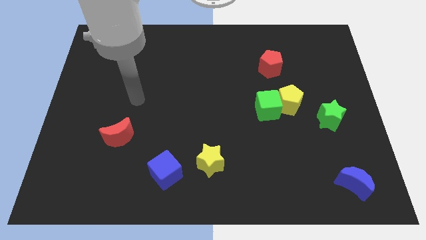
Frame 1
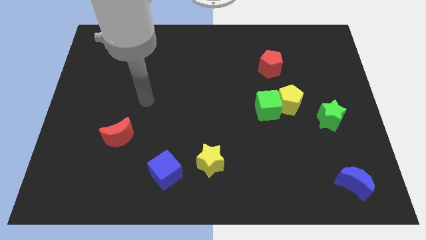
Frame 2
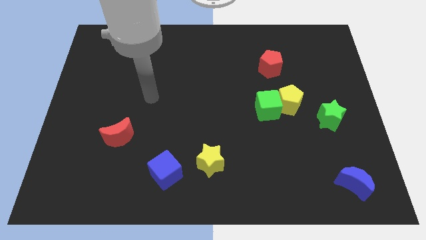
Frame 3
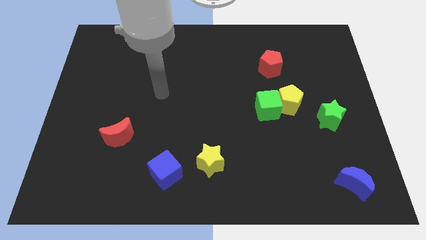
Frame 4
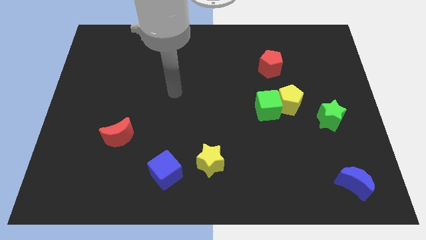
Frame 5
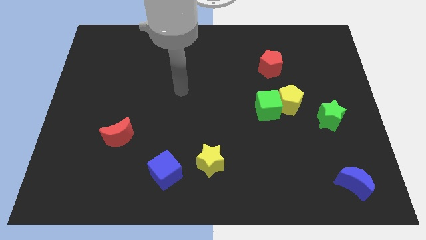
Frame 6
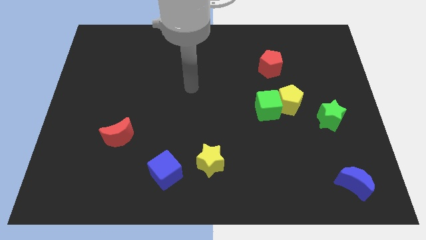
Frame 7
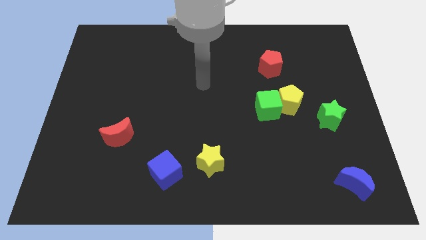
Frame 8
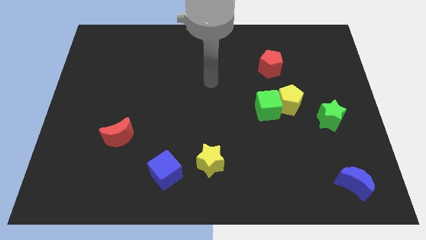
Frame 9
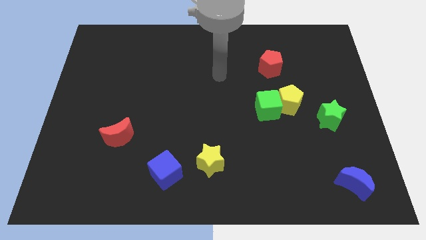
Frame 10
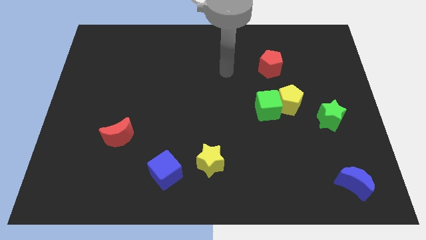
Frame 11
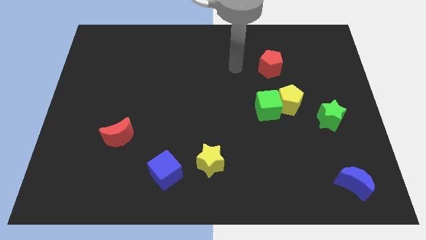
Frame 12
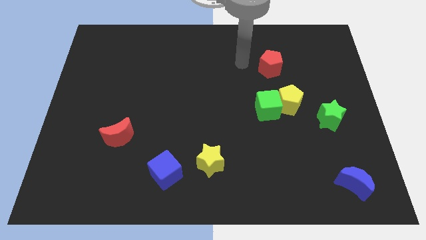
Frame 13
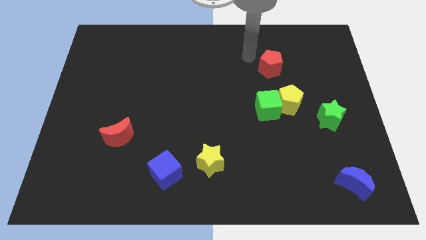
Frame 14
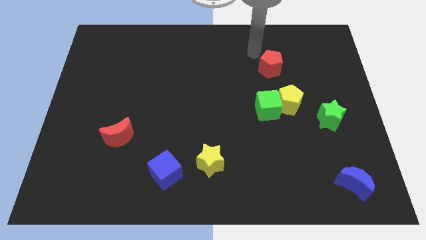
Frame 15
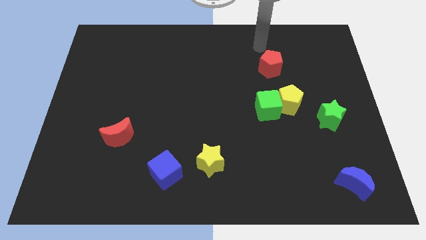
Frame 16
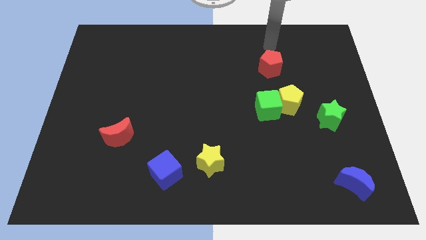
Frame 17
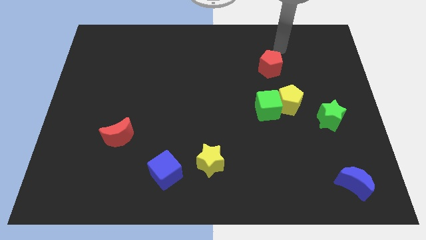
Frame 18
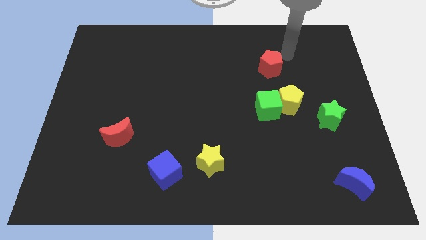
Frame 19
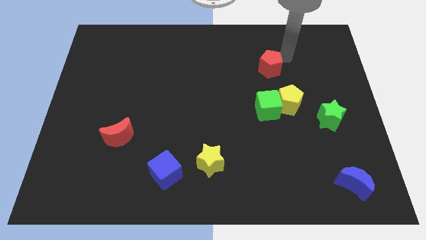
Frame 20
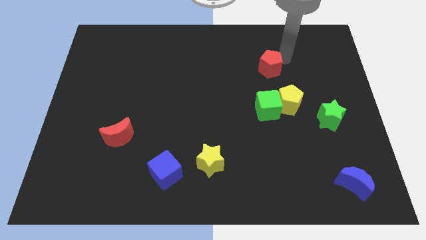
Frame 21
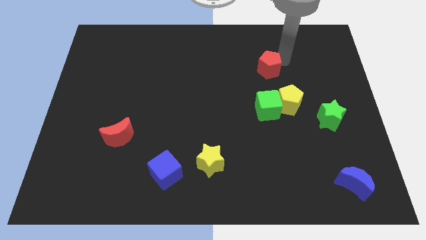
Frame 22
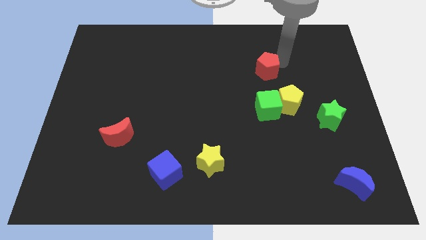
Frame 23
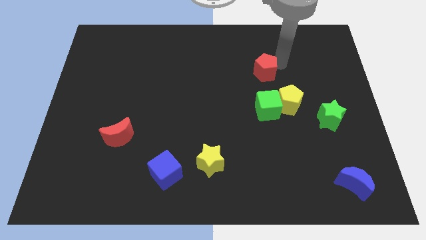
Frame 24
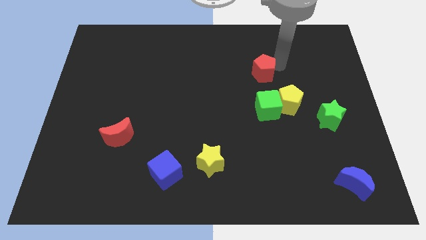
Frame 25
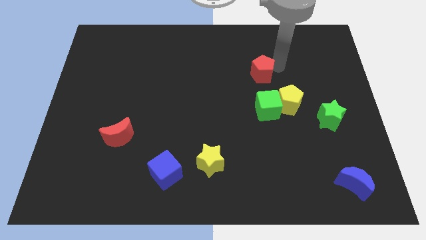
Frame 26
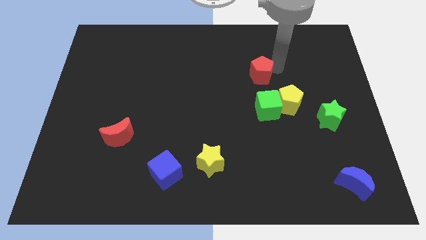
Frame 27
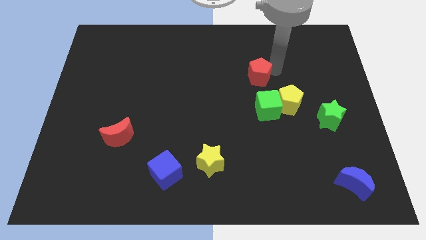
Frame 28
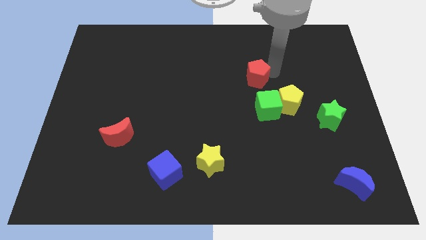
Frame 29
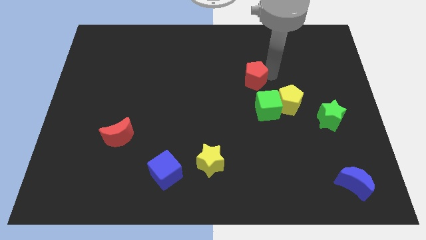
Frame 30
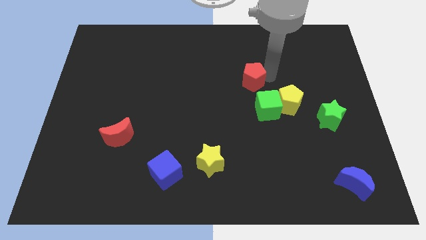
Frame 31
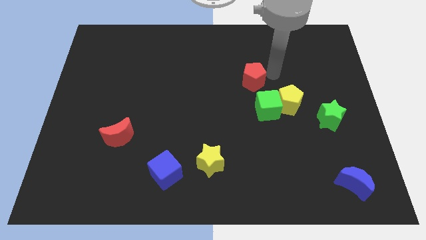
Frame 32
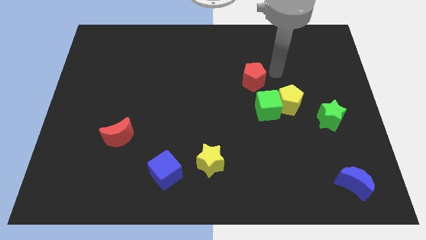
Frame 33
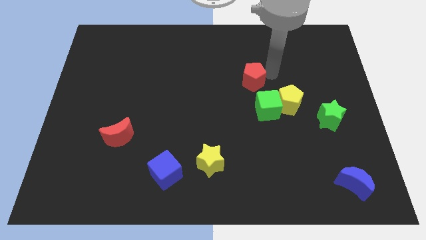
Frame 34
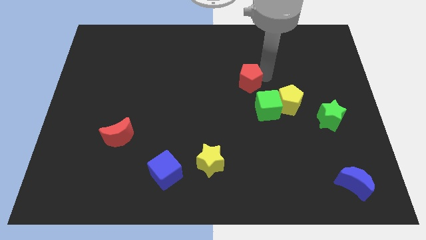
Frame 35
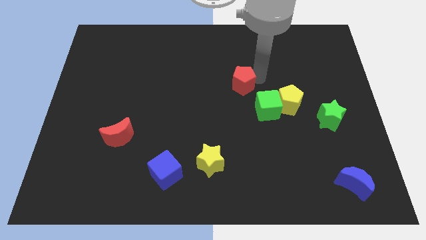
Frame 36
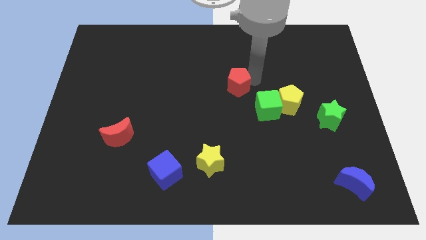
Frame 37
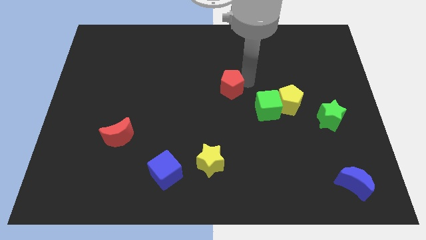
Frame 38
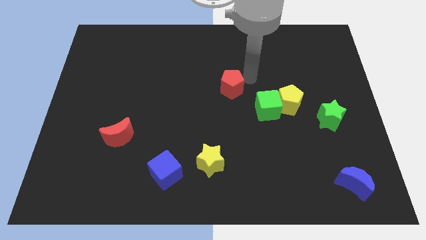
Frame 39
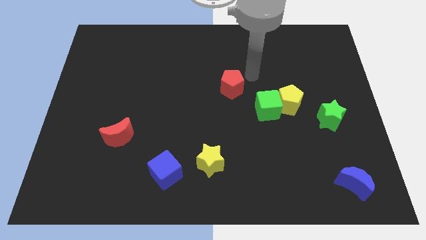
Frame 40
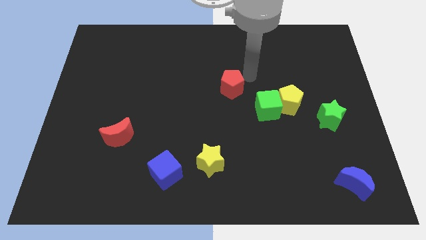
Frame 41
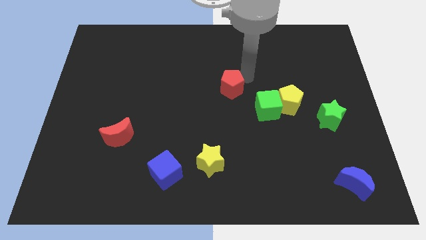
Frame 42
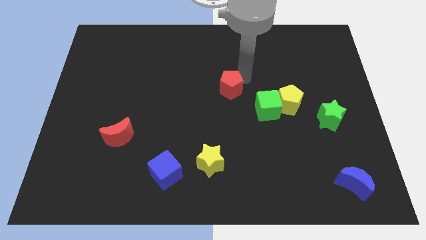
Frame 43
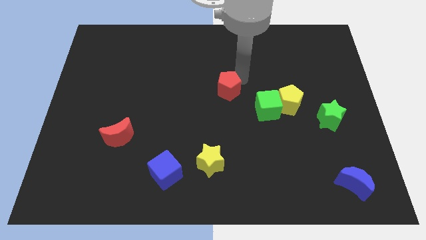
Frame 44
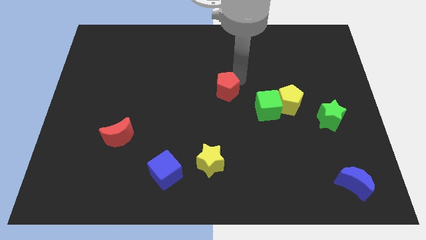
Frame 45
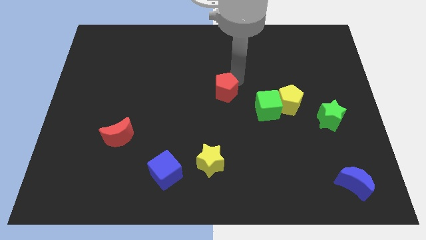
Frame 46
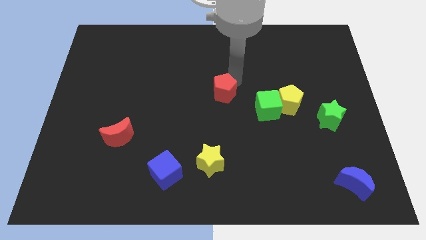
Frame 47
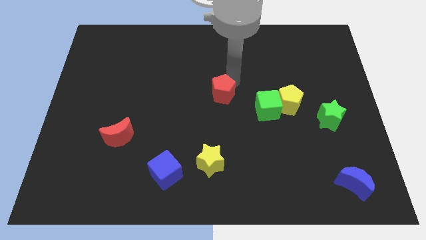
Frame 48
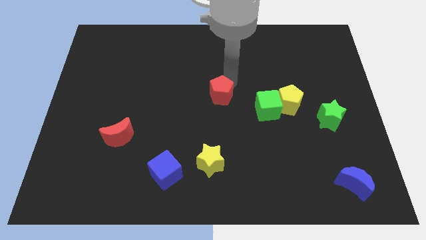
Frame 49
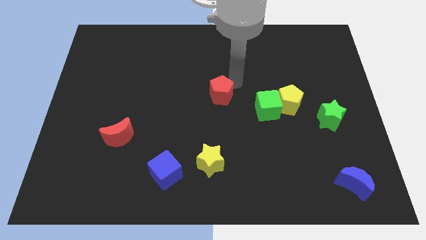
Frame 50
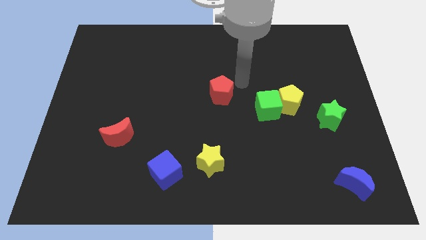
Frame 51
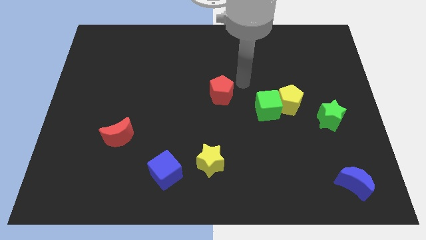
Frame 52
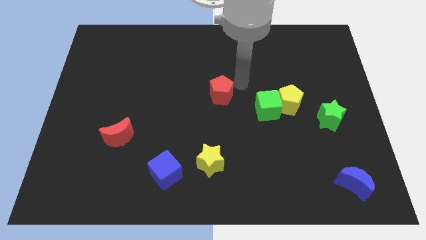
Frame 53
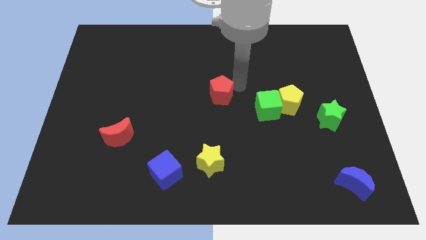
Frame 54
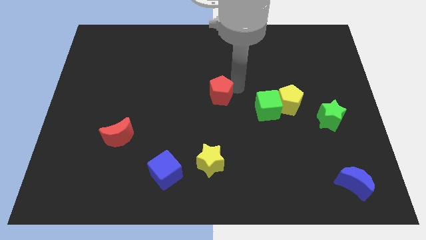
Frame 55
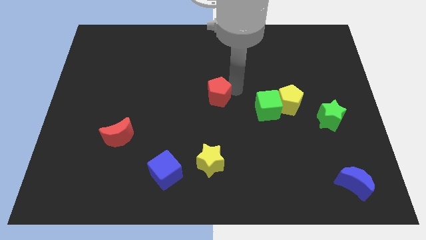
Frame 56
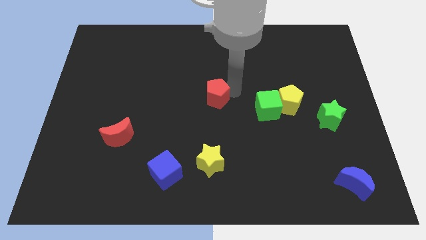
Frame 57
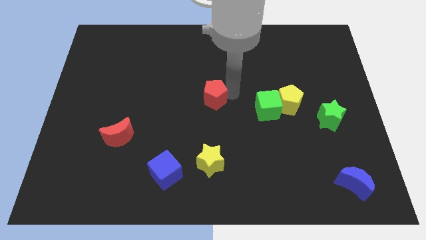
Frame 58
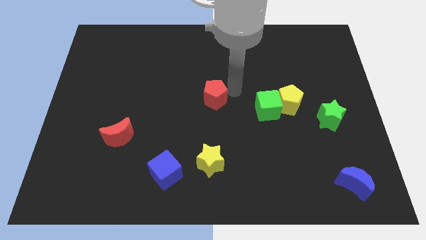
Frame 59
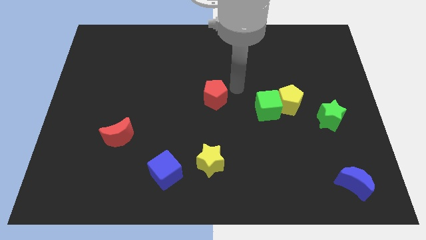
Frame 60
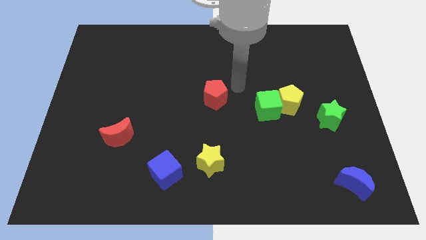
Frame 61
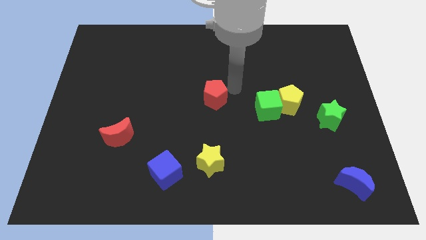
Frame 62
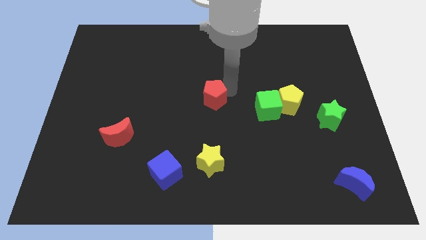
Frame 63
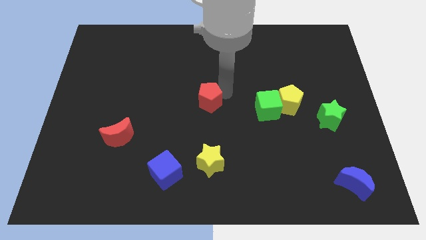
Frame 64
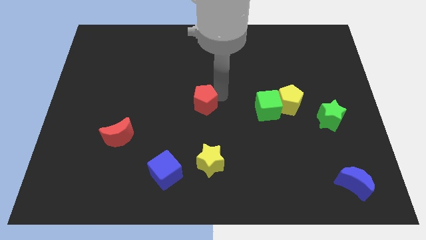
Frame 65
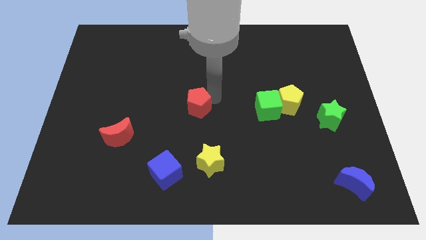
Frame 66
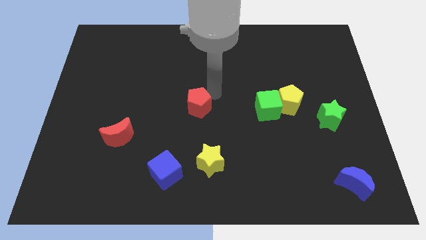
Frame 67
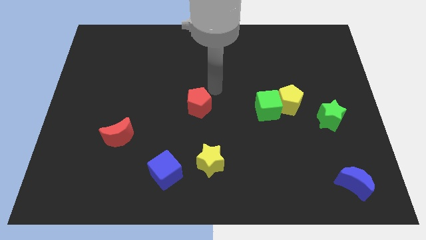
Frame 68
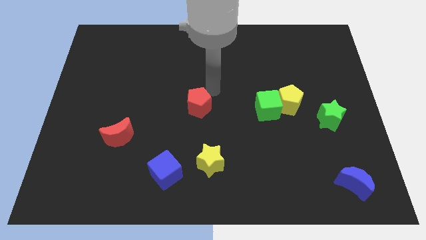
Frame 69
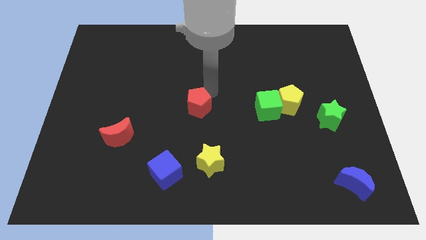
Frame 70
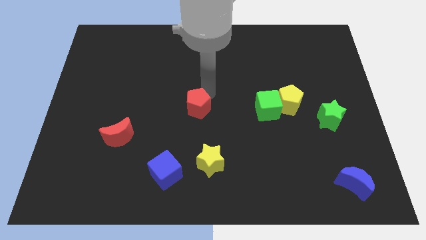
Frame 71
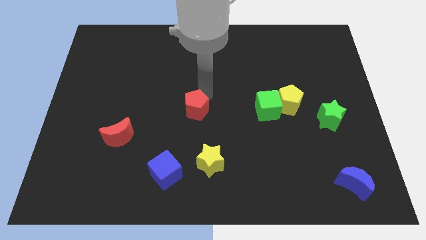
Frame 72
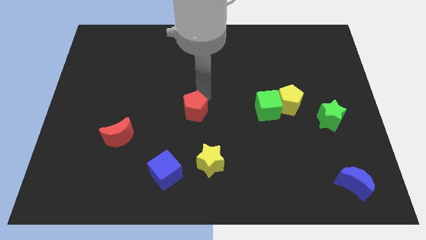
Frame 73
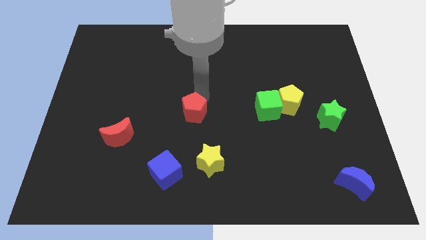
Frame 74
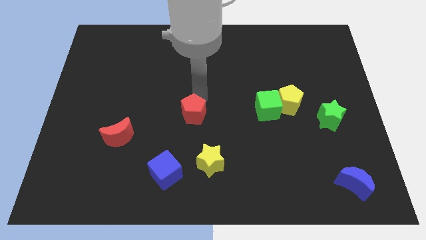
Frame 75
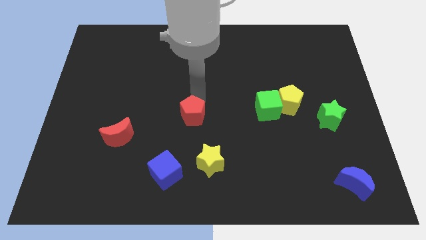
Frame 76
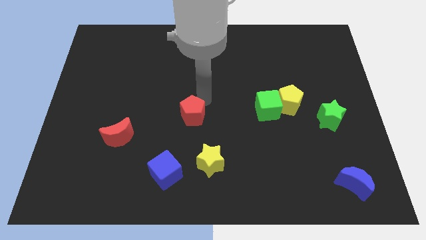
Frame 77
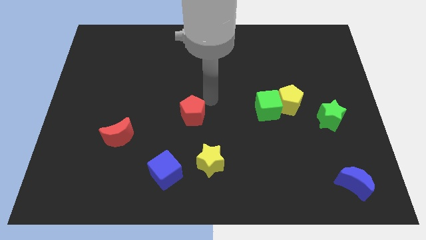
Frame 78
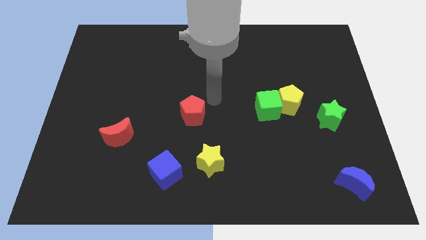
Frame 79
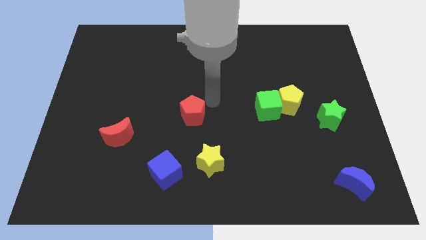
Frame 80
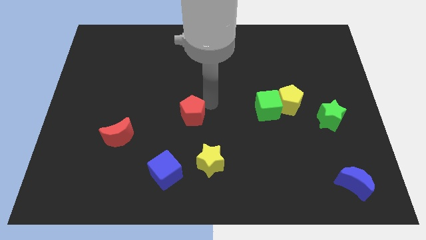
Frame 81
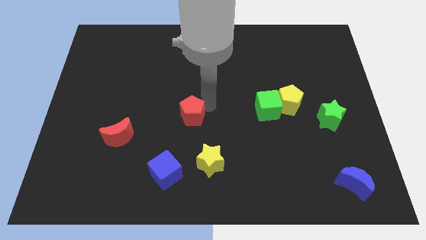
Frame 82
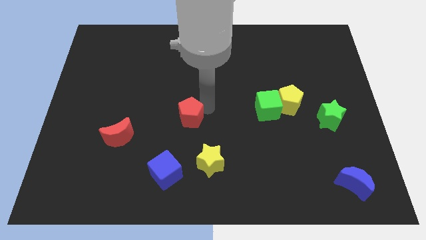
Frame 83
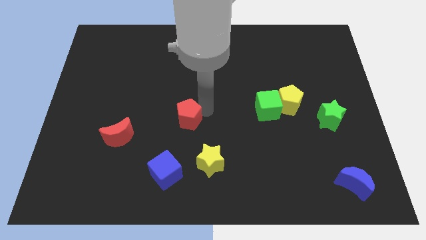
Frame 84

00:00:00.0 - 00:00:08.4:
put the red pentagon above the blue cube
